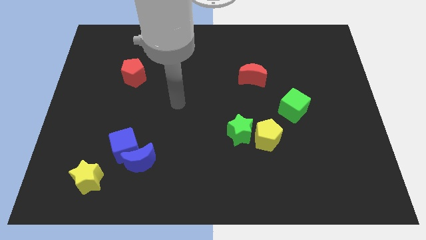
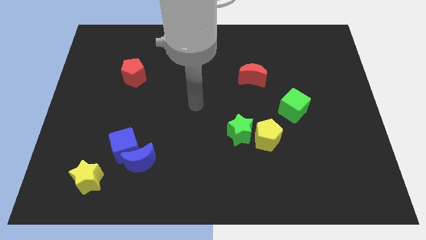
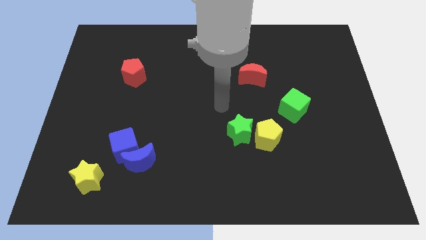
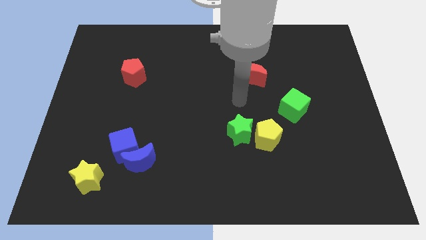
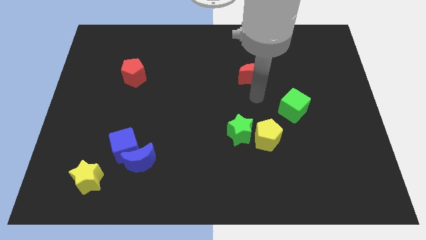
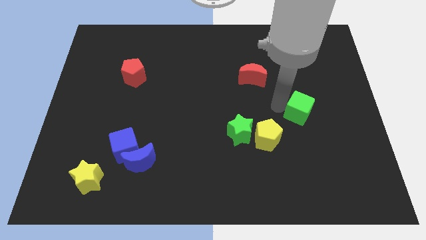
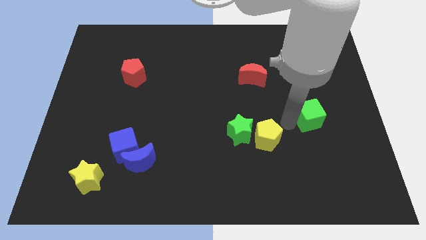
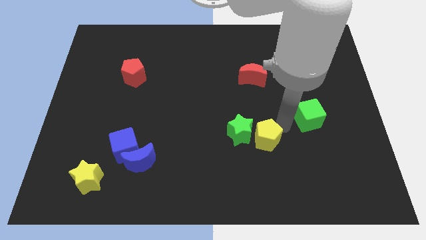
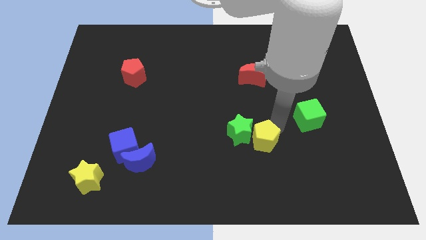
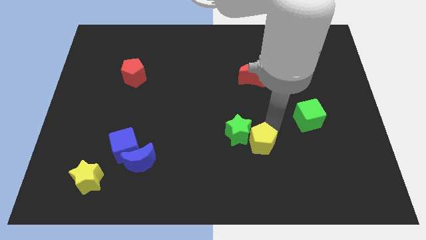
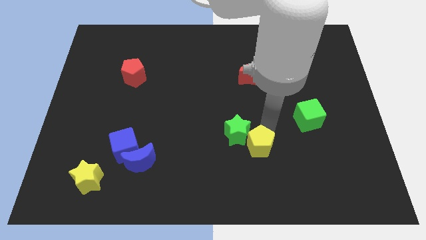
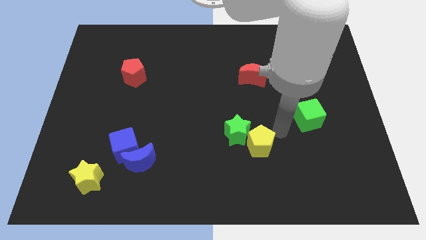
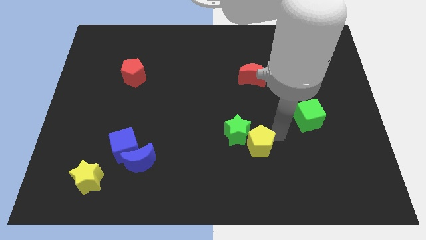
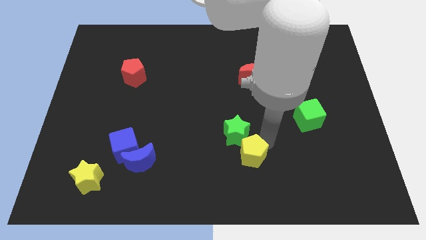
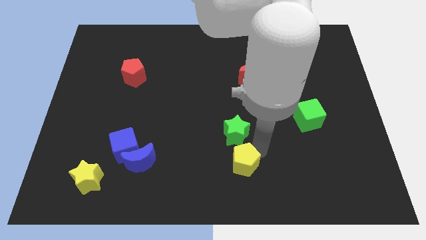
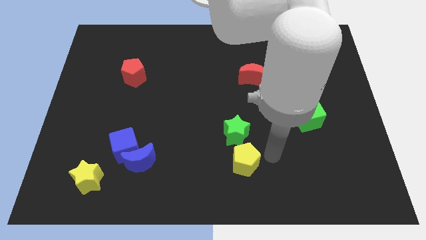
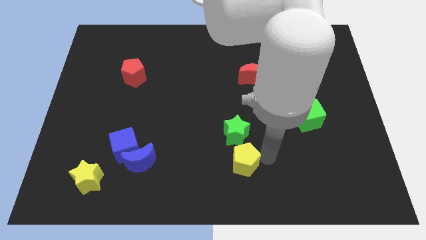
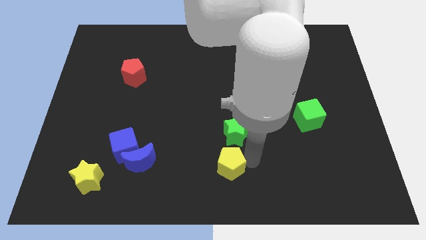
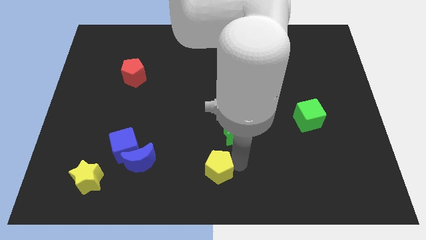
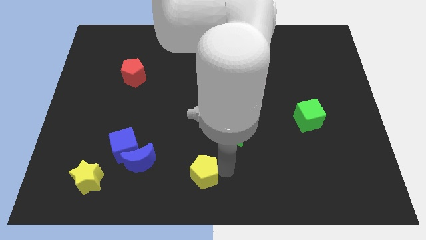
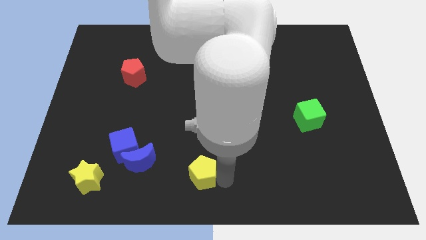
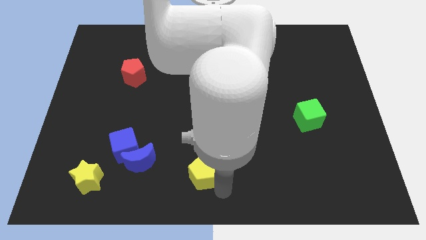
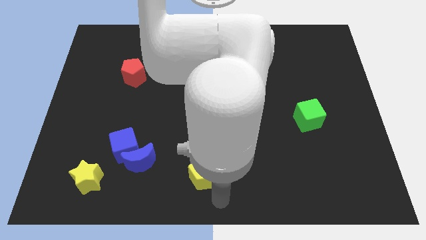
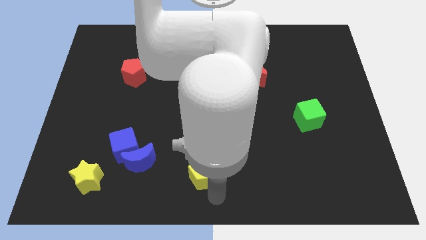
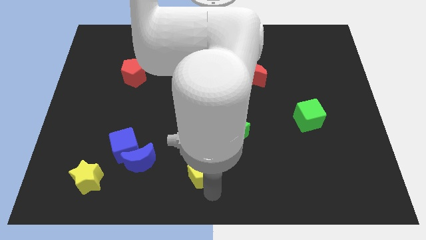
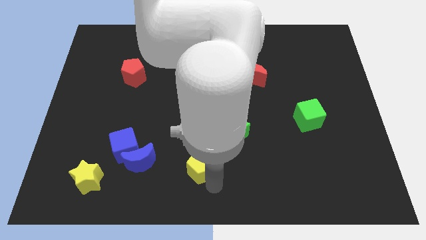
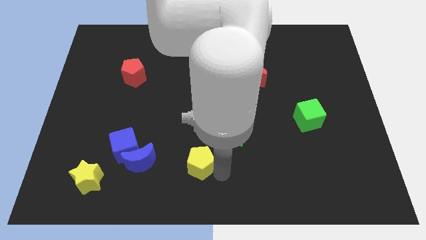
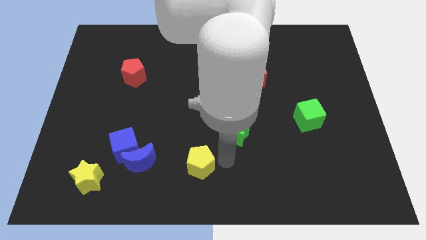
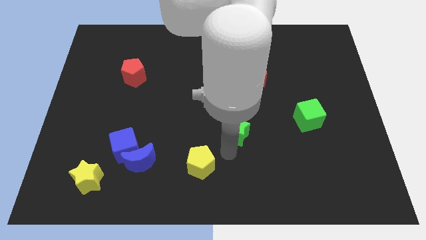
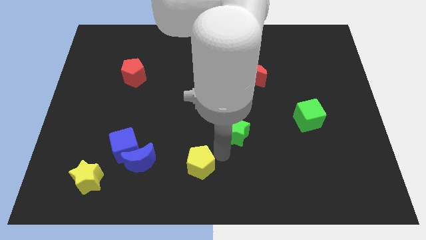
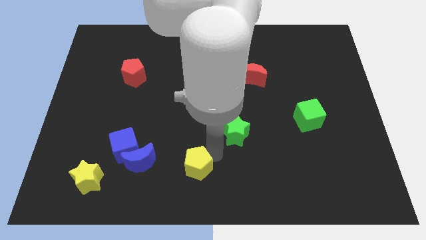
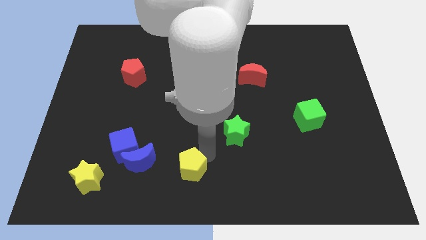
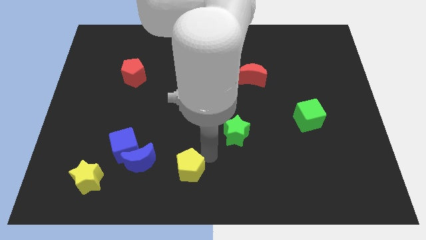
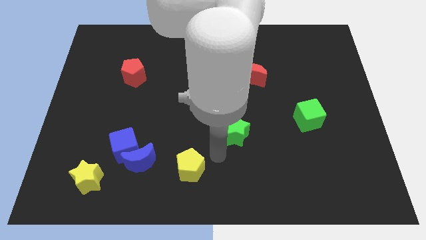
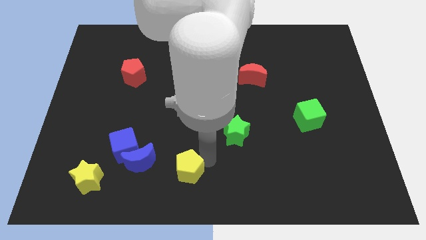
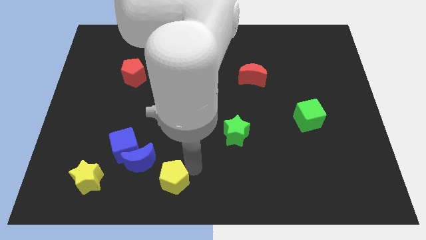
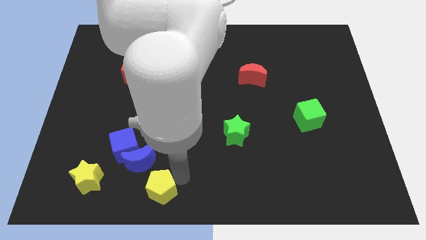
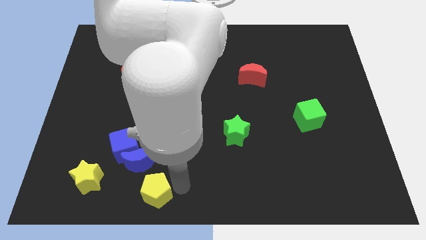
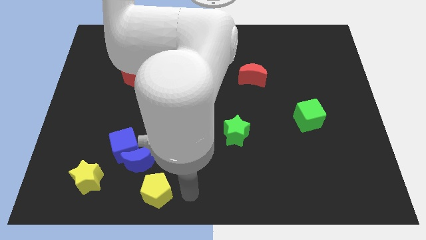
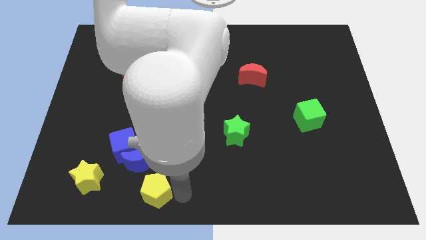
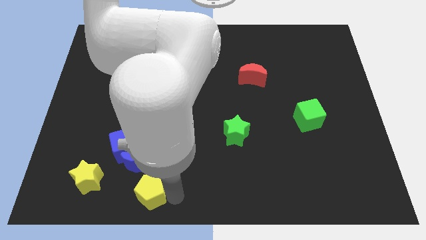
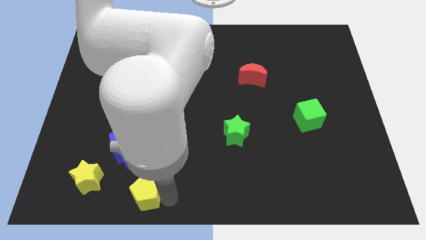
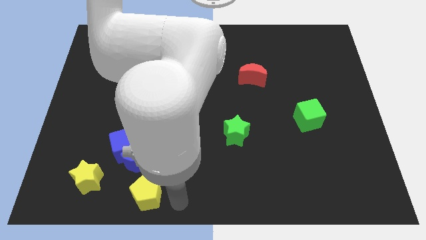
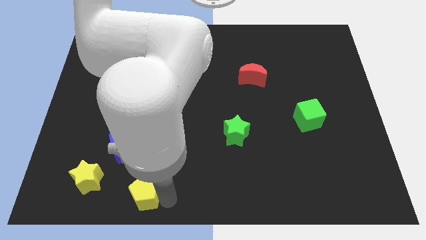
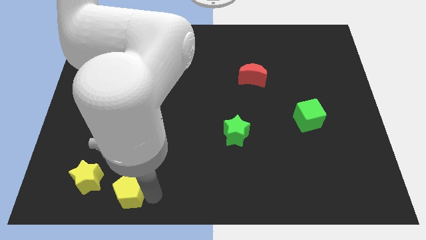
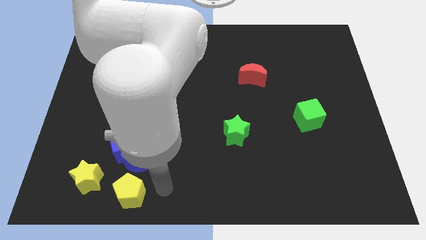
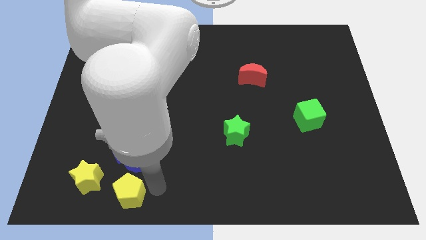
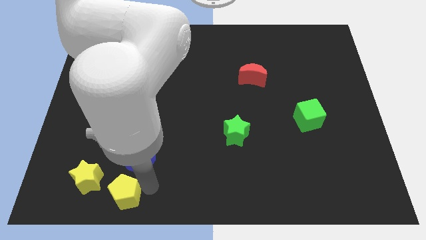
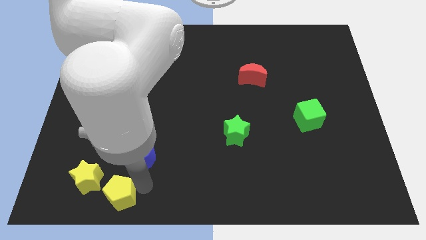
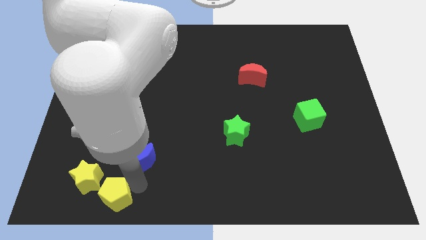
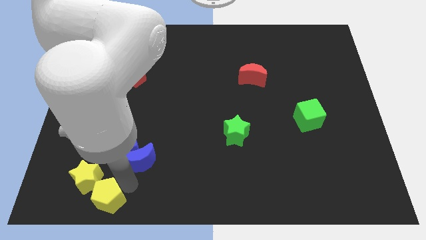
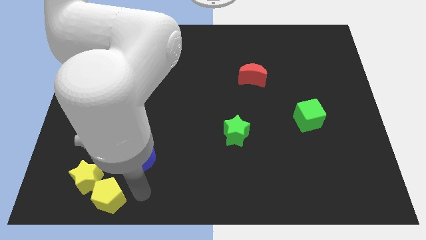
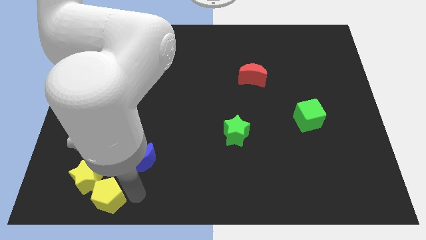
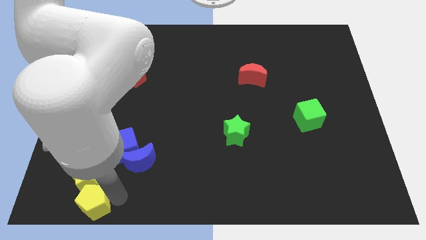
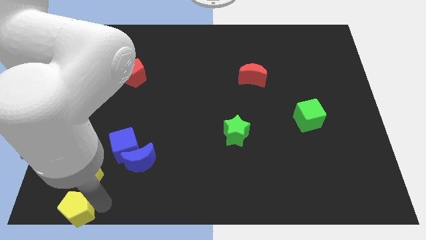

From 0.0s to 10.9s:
slide the yellow pentagon to the lower left corner

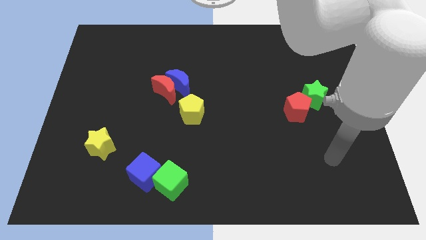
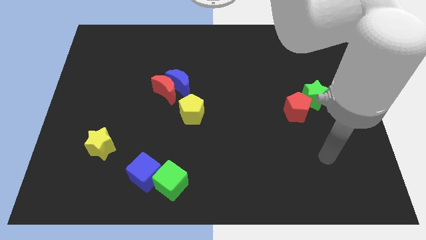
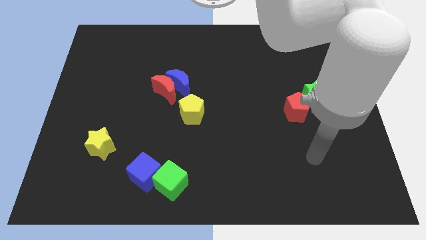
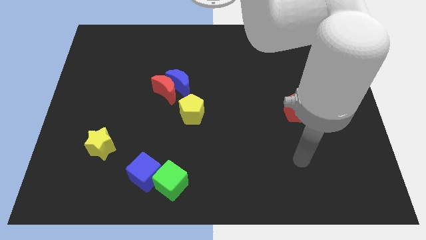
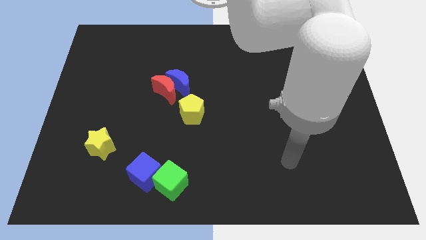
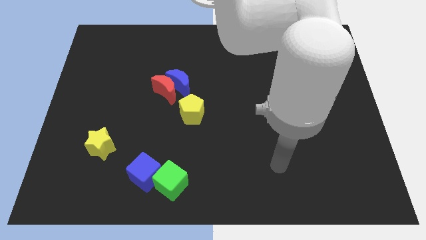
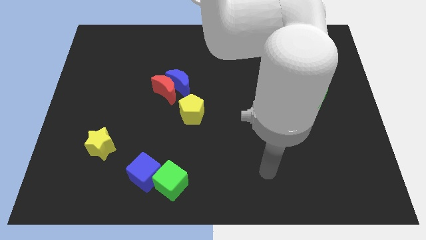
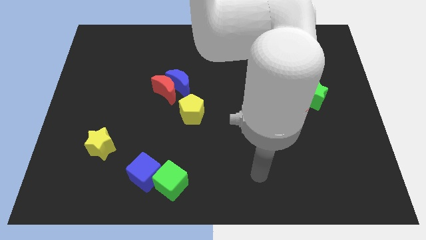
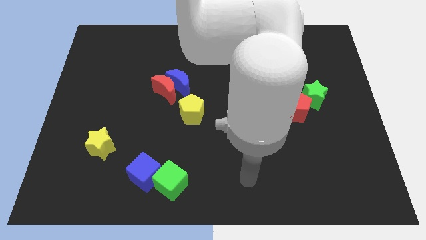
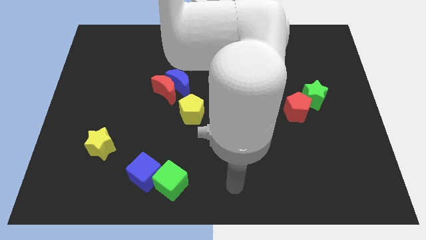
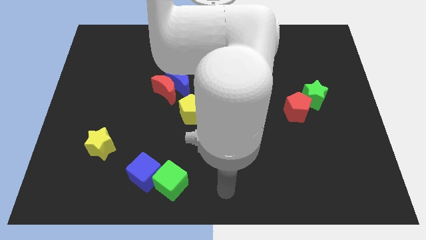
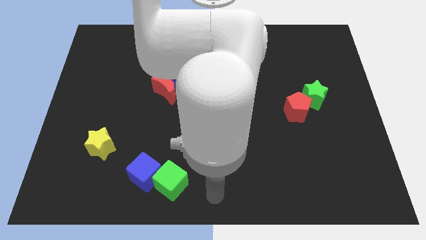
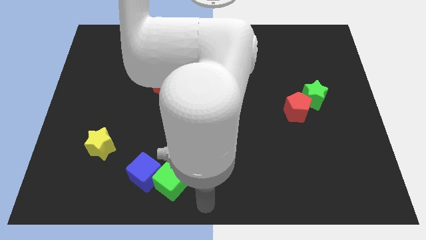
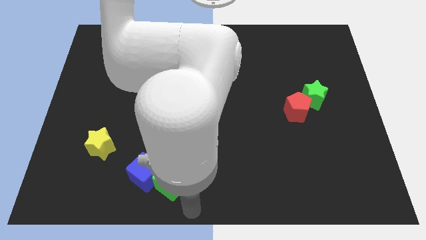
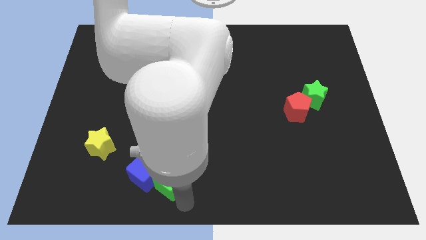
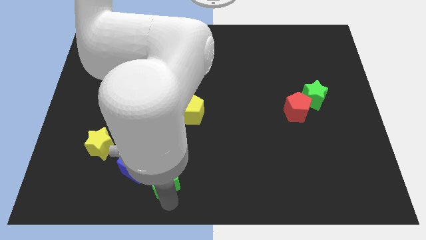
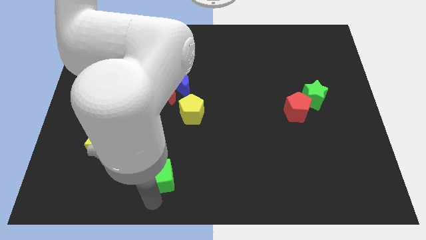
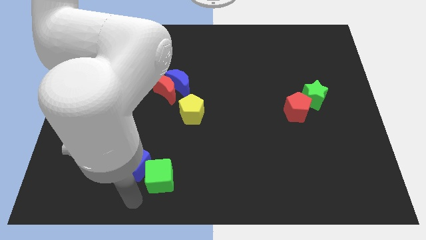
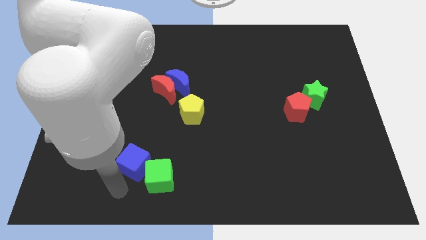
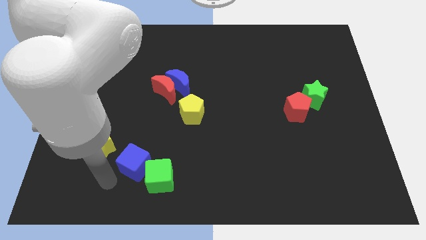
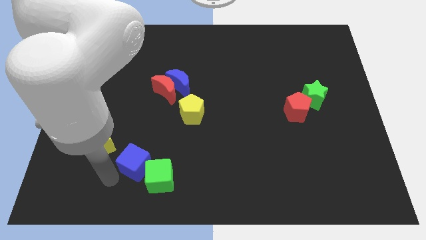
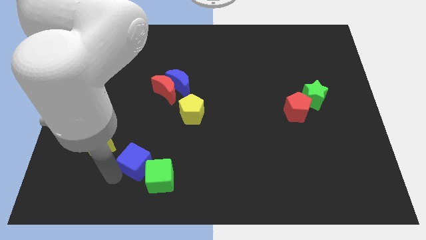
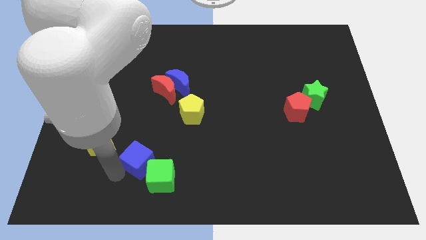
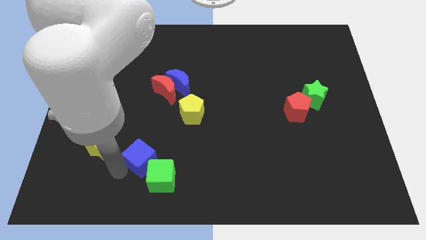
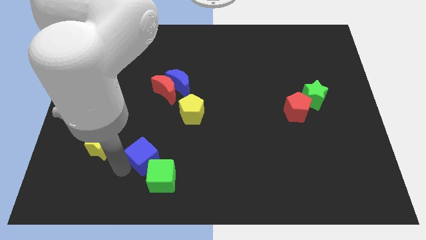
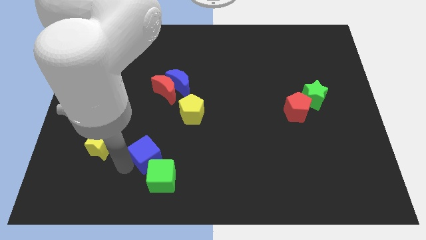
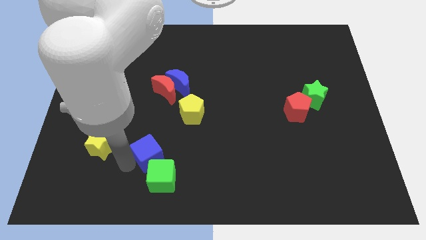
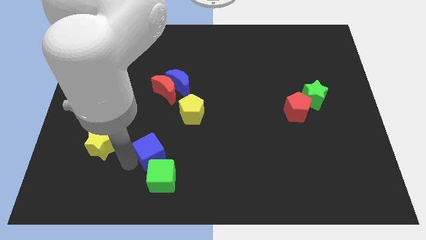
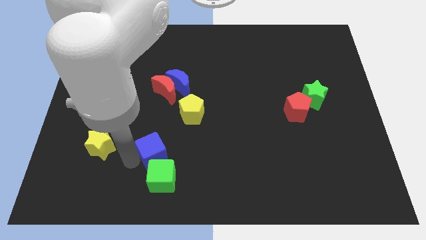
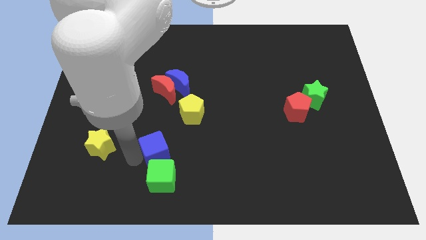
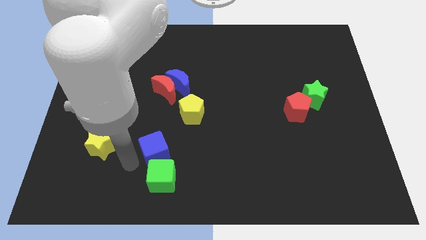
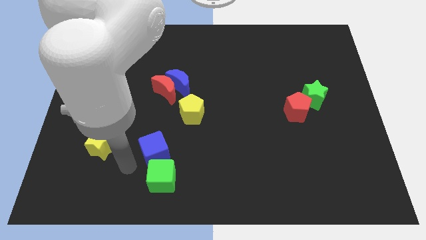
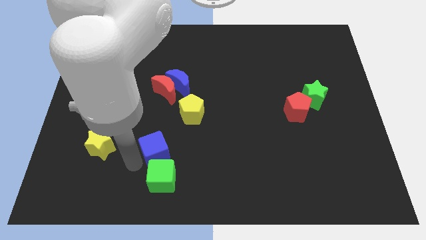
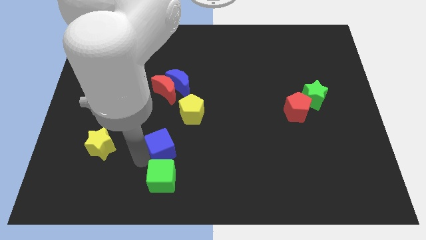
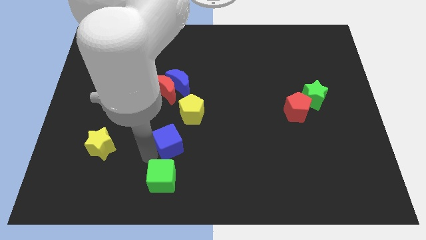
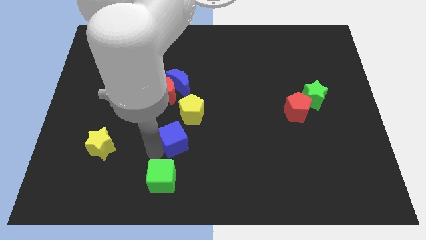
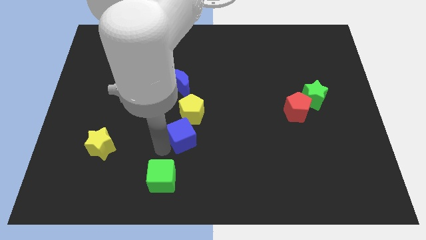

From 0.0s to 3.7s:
push the blue cube to the middle
